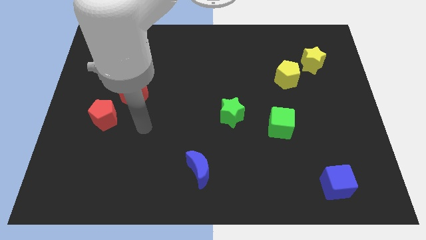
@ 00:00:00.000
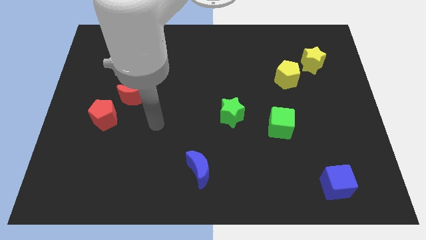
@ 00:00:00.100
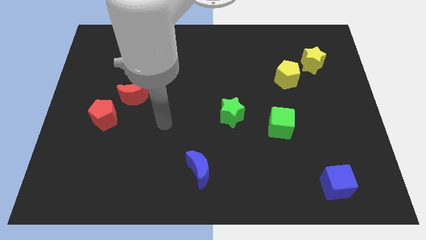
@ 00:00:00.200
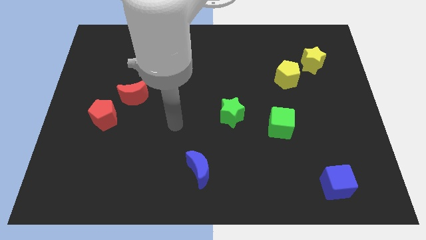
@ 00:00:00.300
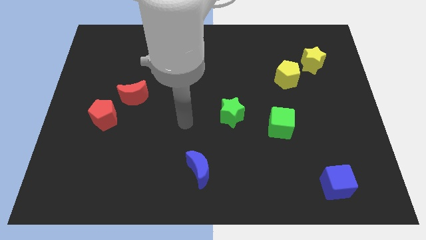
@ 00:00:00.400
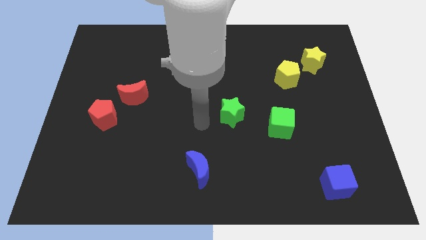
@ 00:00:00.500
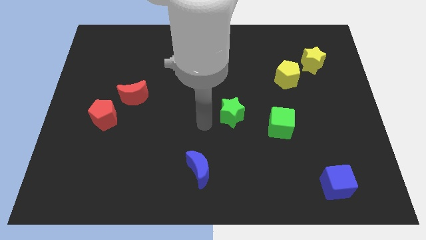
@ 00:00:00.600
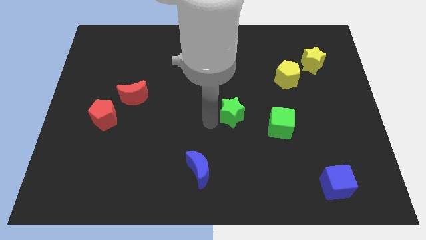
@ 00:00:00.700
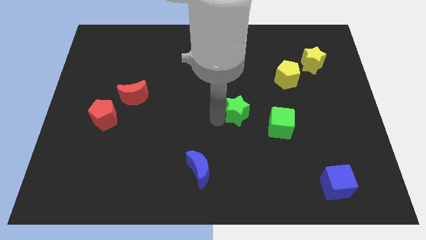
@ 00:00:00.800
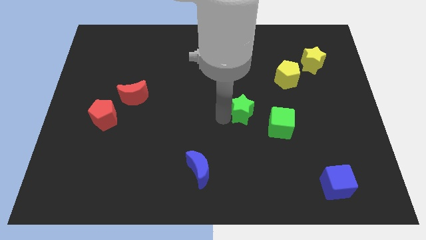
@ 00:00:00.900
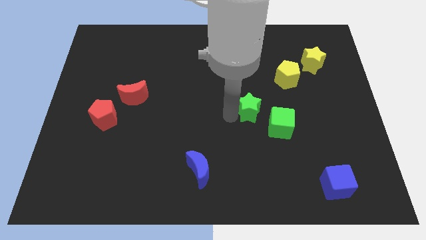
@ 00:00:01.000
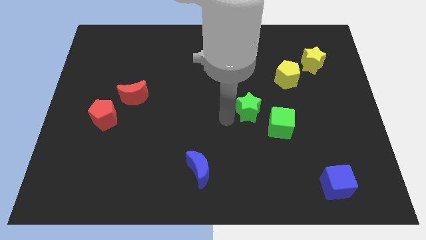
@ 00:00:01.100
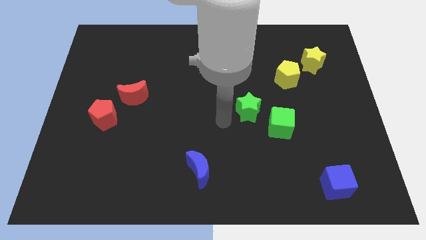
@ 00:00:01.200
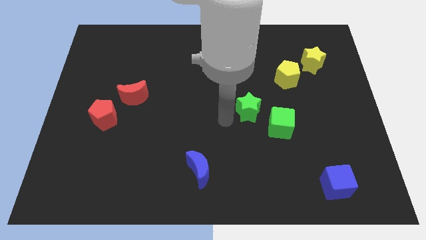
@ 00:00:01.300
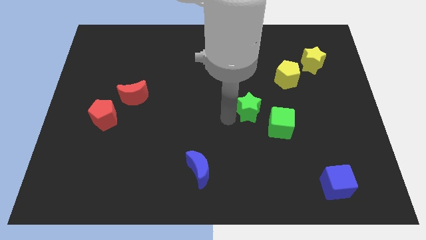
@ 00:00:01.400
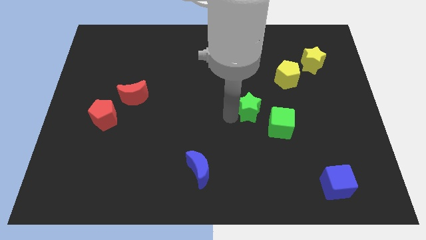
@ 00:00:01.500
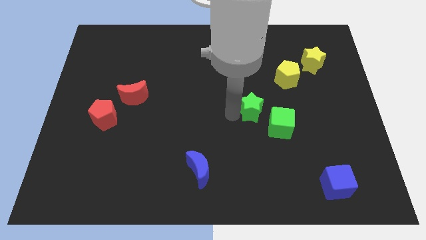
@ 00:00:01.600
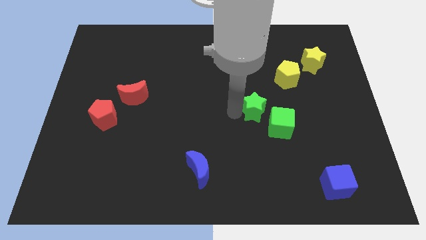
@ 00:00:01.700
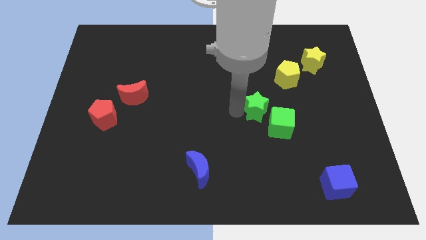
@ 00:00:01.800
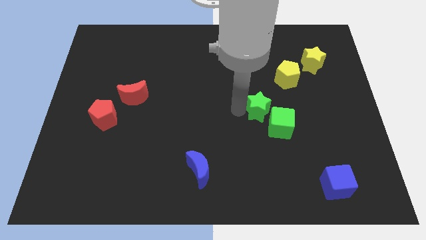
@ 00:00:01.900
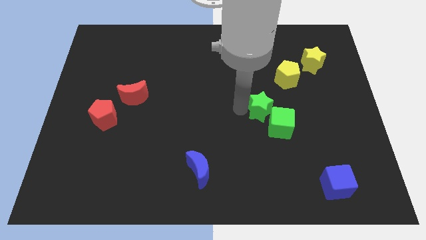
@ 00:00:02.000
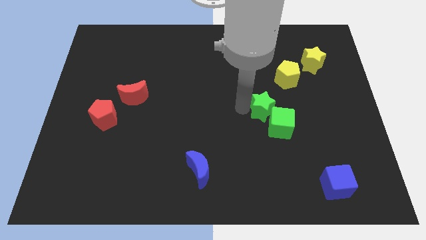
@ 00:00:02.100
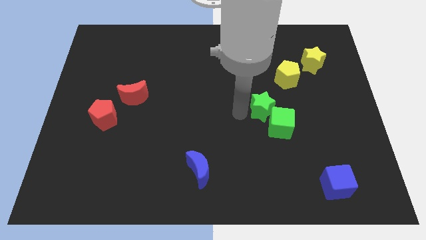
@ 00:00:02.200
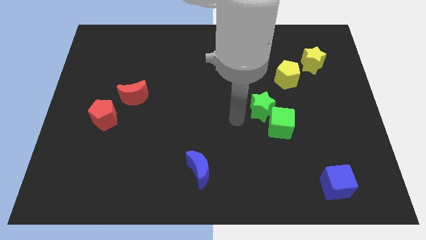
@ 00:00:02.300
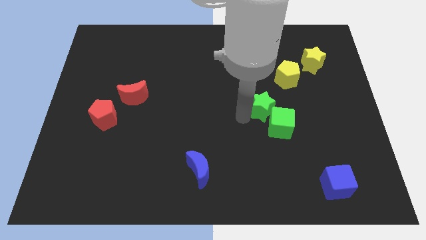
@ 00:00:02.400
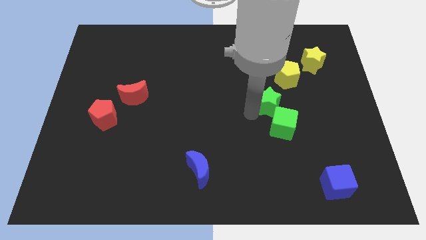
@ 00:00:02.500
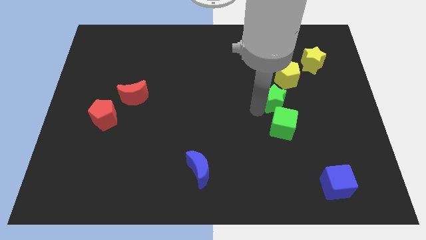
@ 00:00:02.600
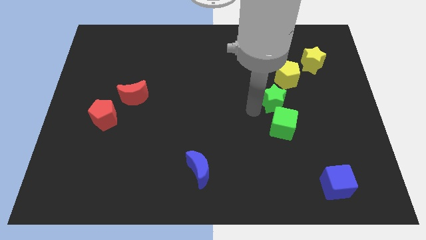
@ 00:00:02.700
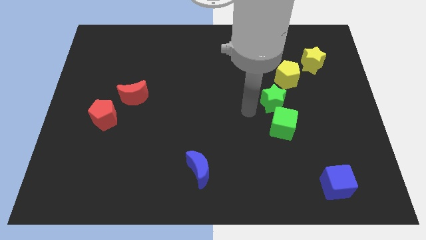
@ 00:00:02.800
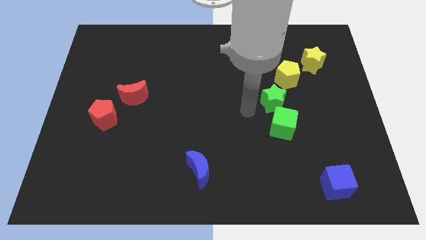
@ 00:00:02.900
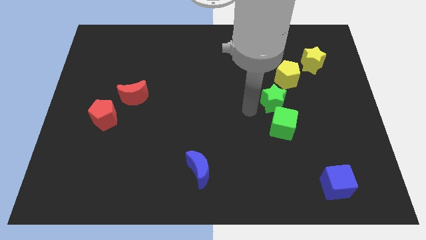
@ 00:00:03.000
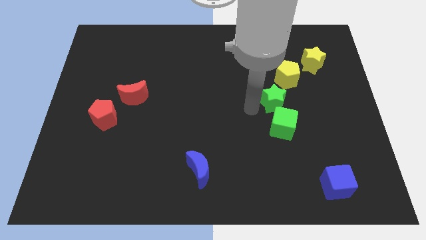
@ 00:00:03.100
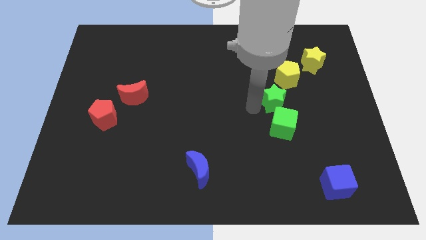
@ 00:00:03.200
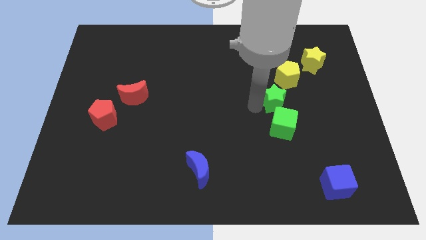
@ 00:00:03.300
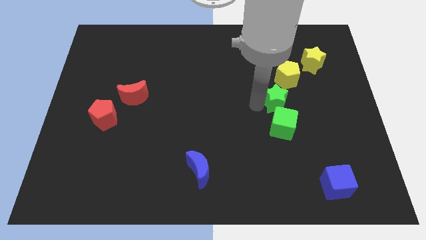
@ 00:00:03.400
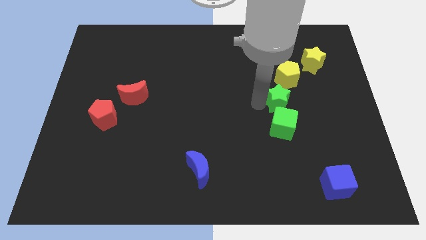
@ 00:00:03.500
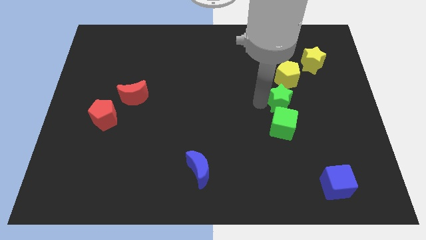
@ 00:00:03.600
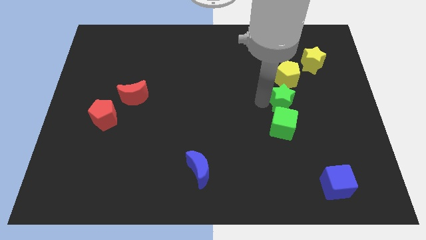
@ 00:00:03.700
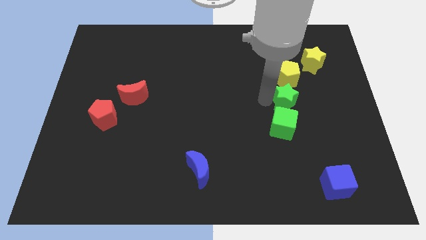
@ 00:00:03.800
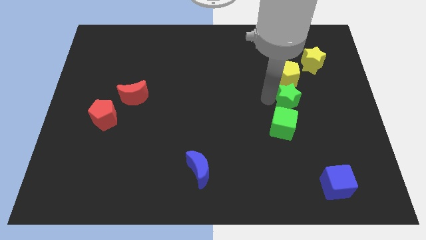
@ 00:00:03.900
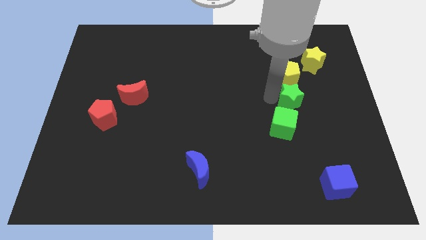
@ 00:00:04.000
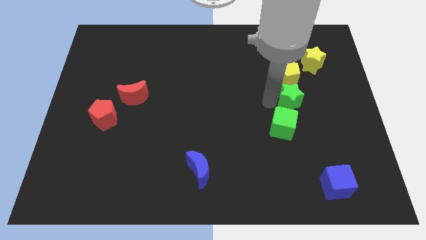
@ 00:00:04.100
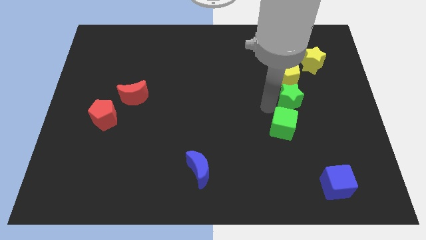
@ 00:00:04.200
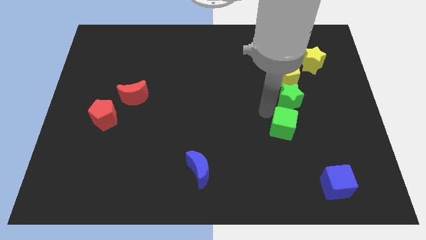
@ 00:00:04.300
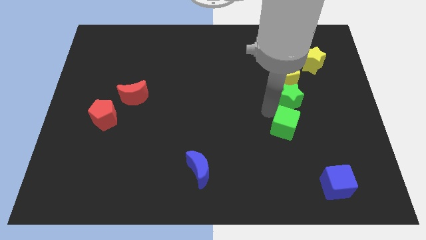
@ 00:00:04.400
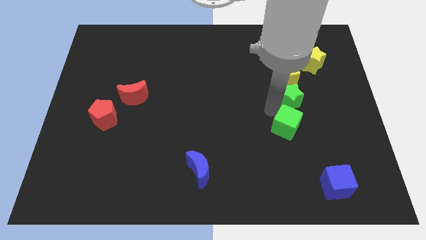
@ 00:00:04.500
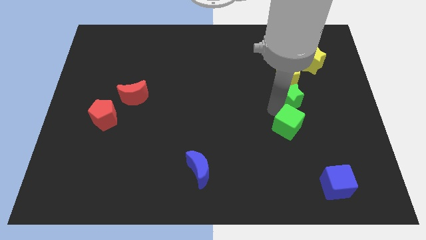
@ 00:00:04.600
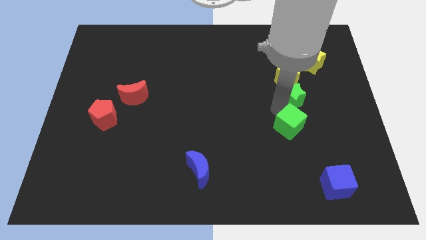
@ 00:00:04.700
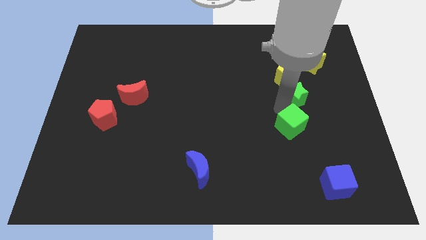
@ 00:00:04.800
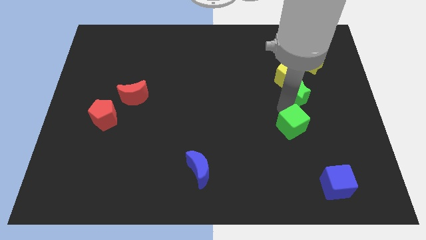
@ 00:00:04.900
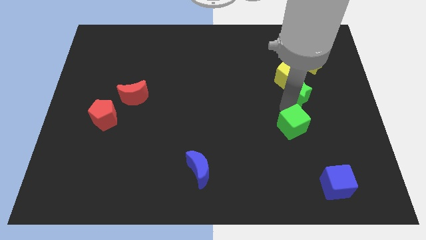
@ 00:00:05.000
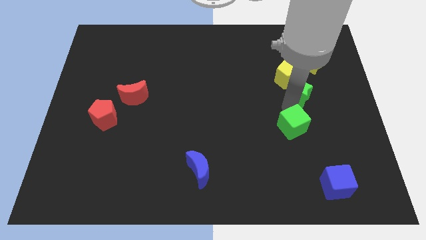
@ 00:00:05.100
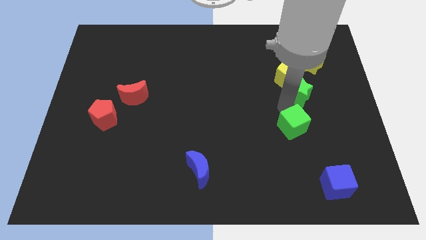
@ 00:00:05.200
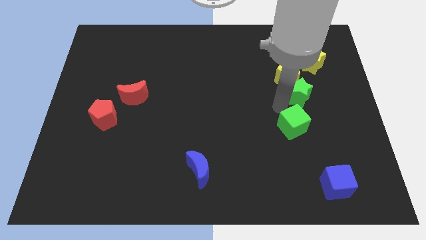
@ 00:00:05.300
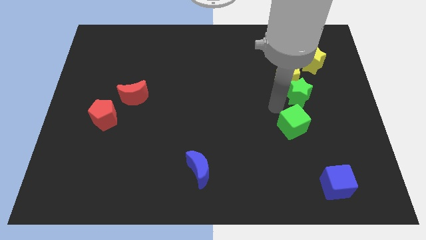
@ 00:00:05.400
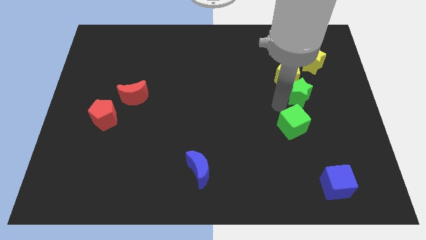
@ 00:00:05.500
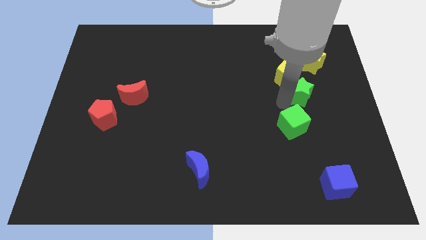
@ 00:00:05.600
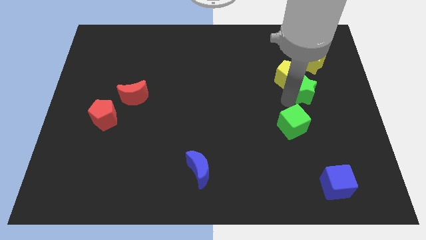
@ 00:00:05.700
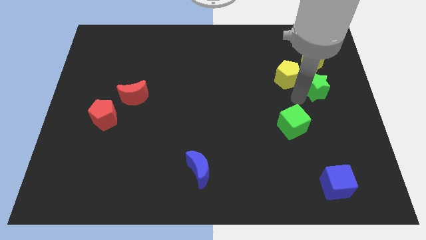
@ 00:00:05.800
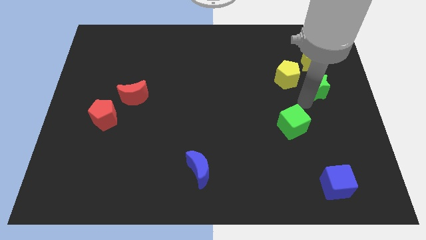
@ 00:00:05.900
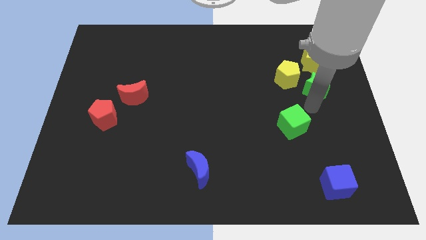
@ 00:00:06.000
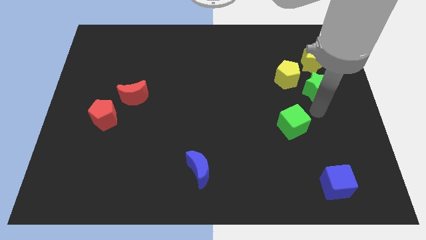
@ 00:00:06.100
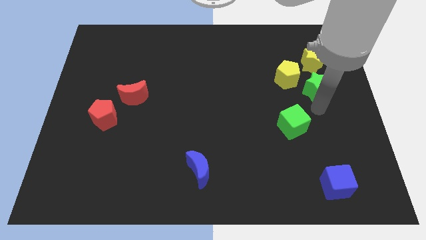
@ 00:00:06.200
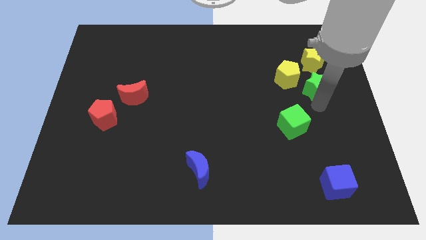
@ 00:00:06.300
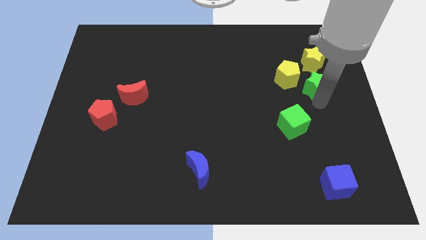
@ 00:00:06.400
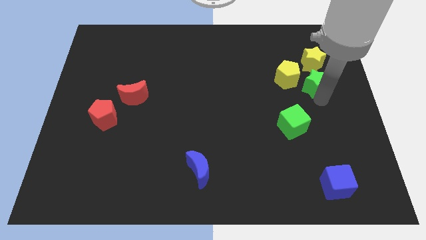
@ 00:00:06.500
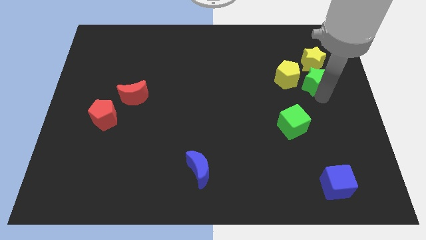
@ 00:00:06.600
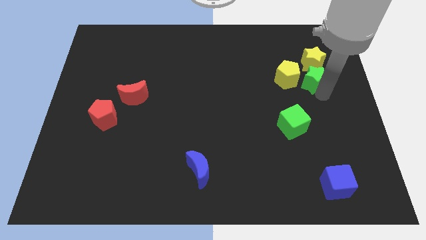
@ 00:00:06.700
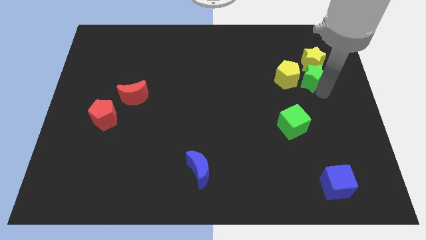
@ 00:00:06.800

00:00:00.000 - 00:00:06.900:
push the green star towards the yellow star
